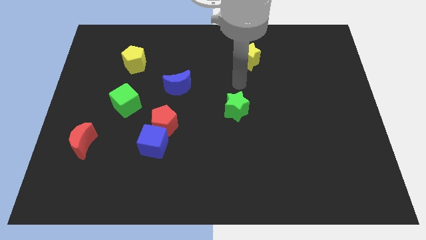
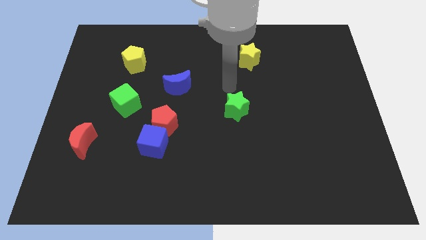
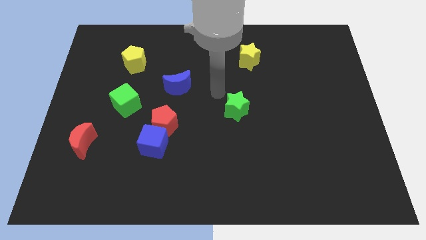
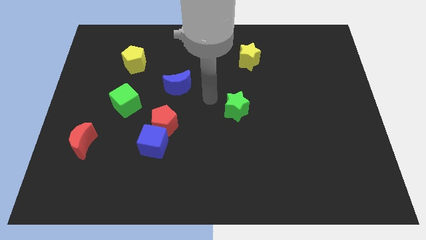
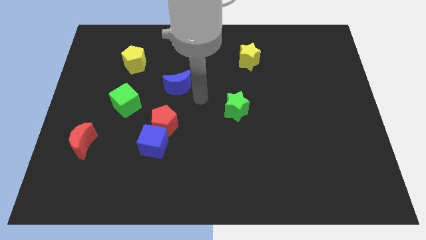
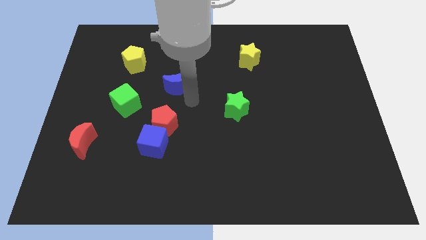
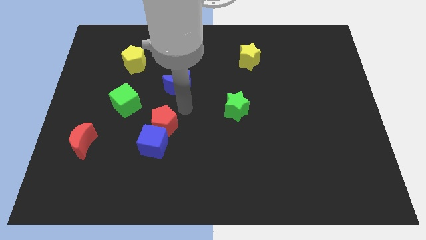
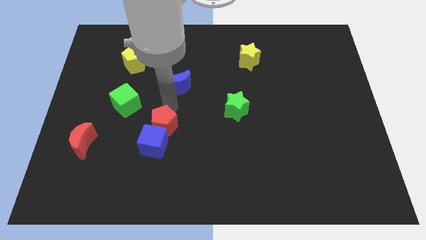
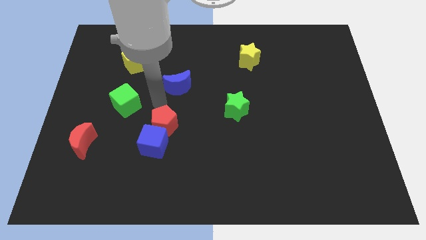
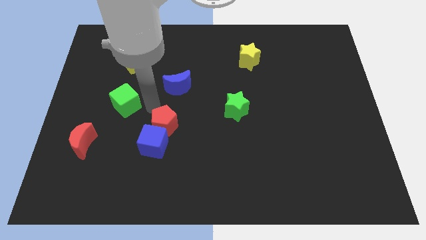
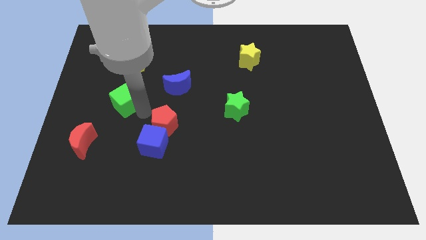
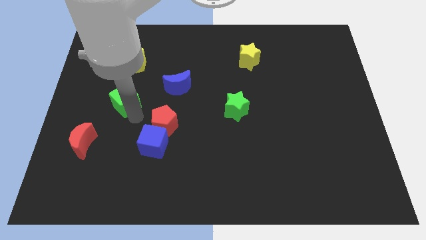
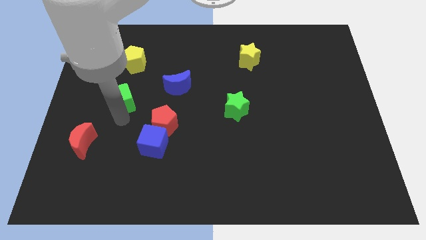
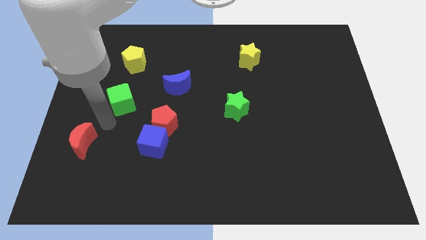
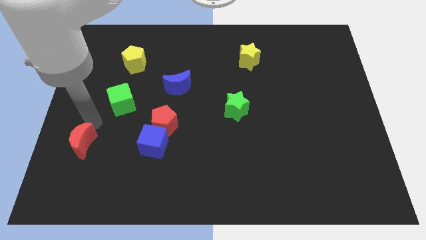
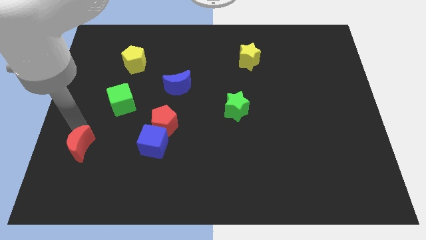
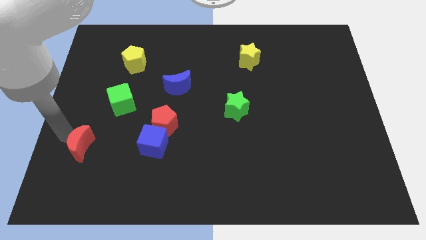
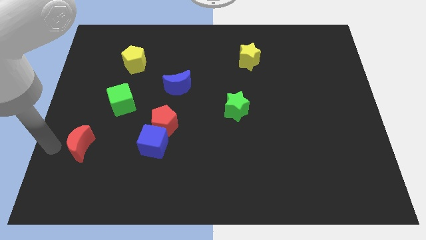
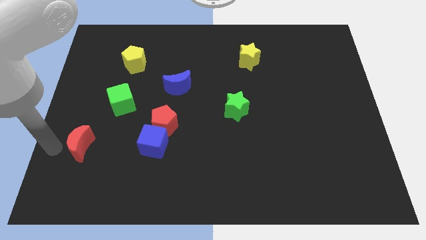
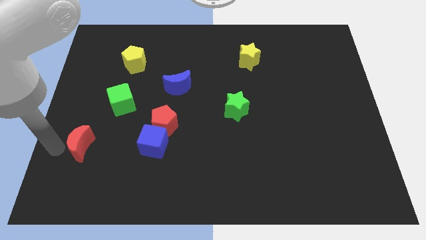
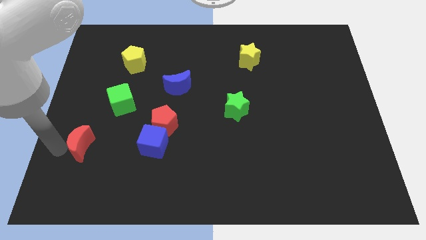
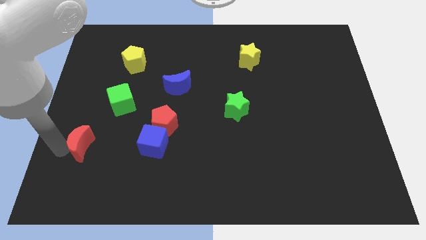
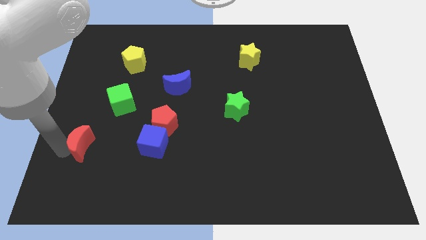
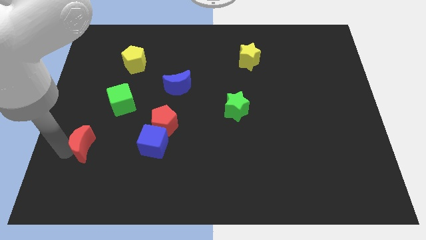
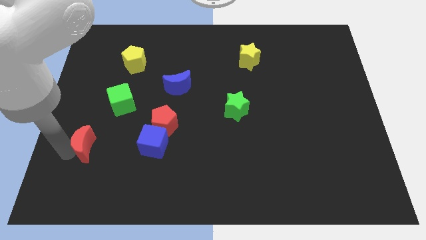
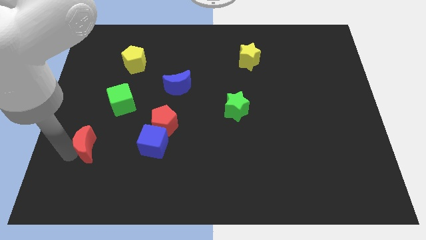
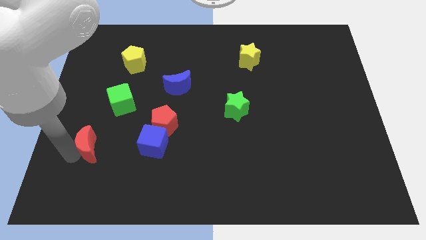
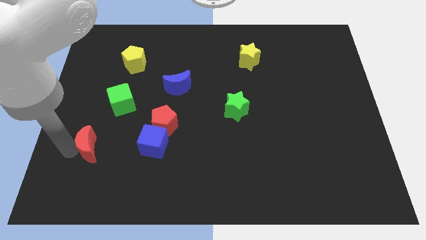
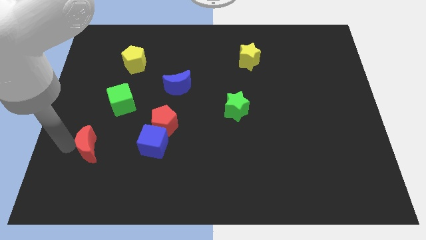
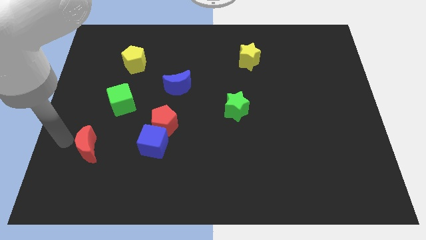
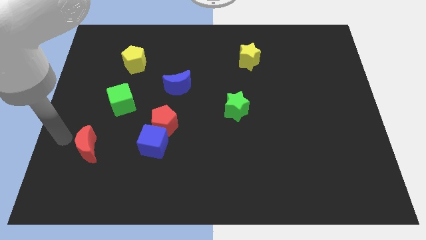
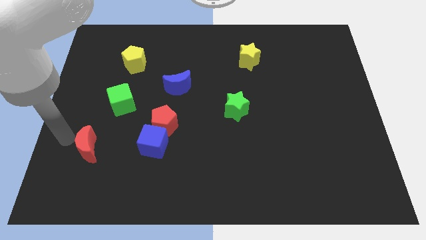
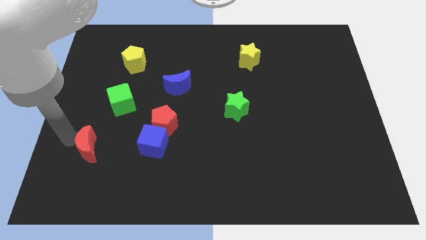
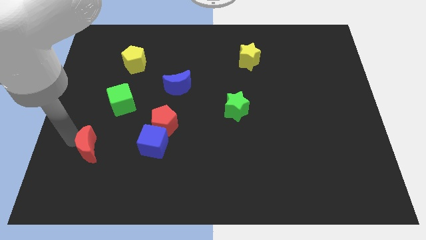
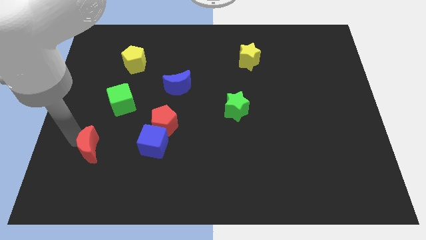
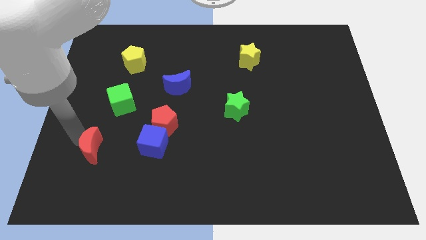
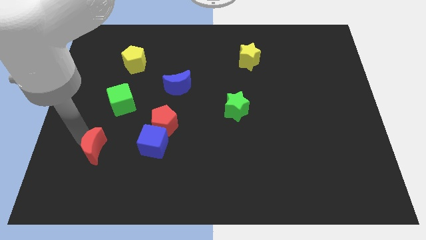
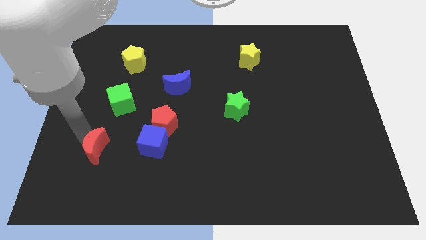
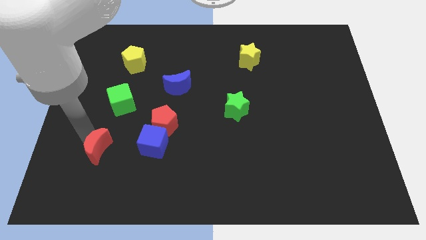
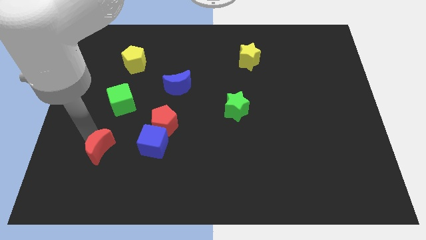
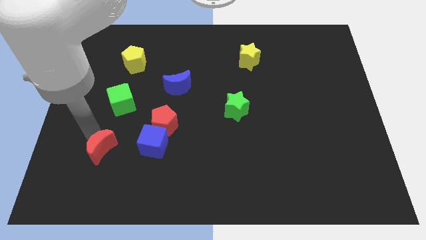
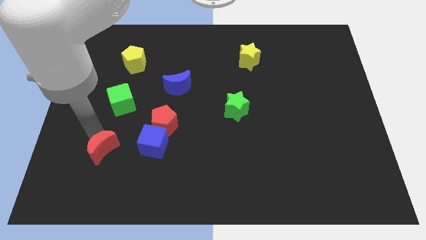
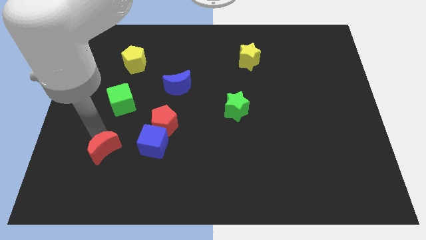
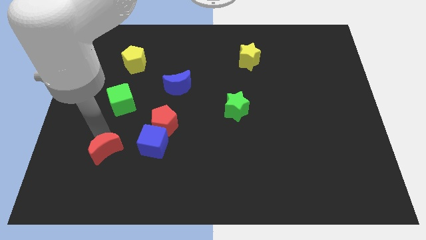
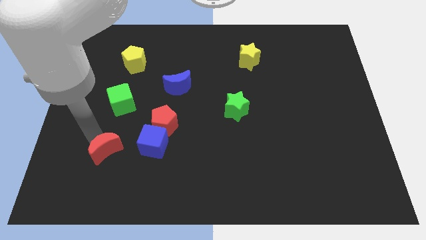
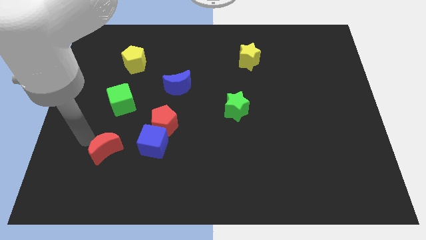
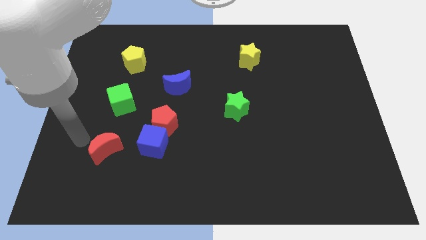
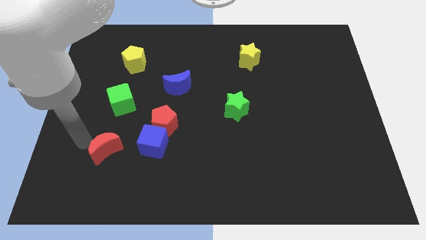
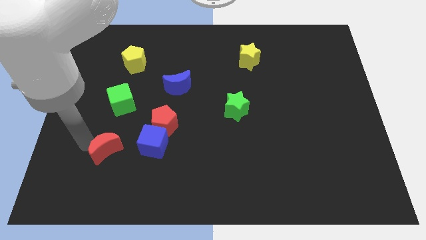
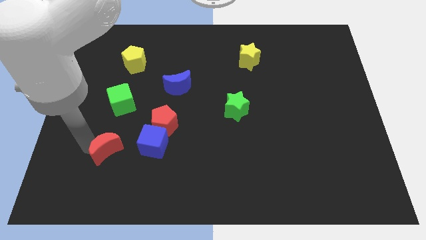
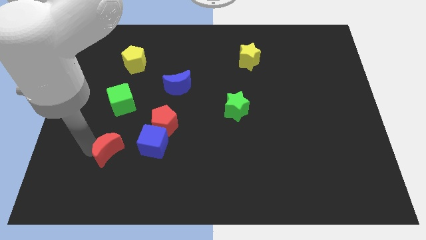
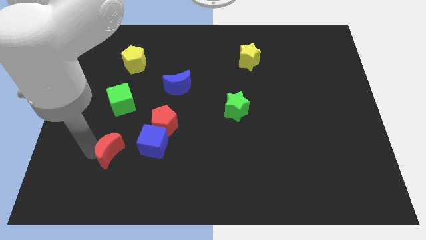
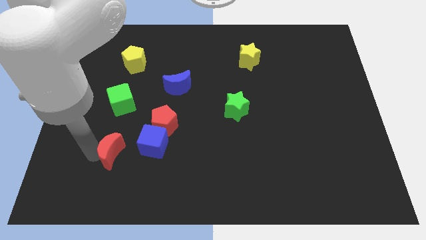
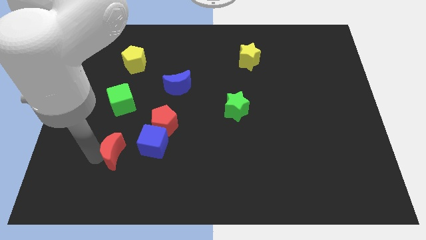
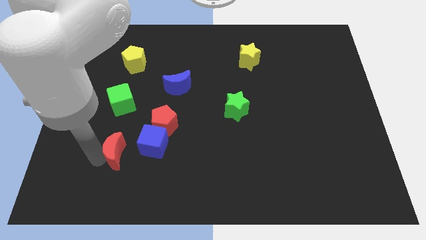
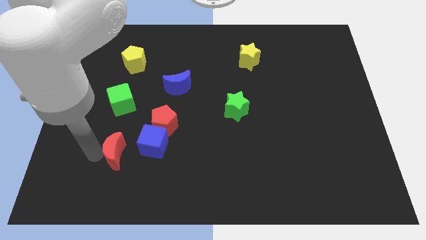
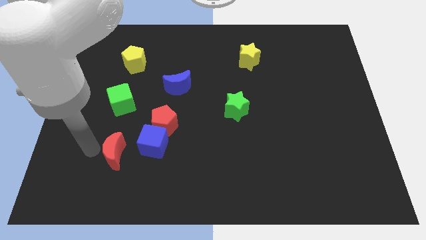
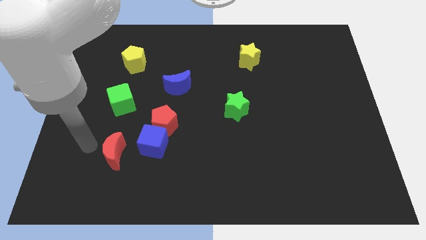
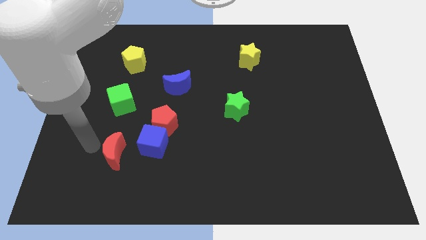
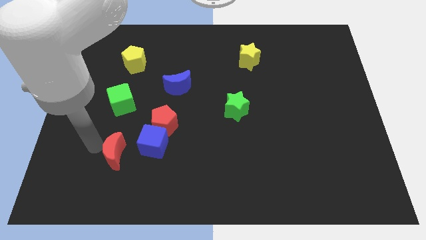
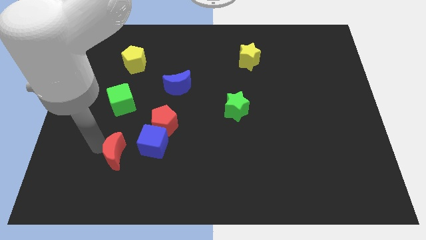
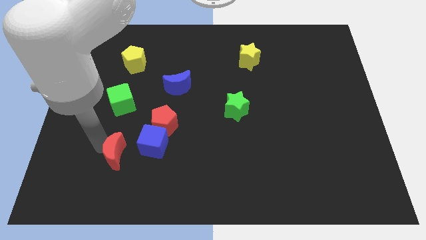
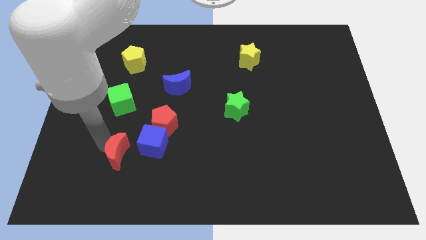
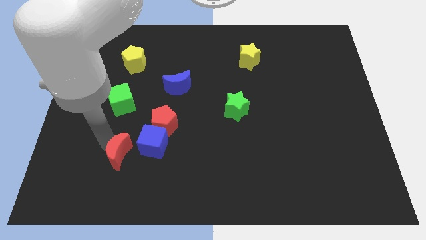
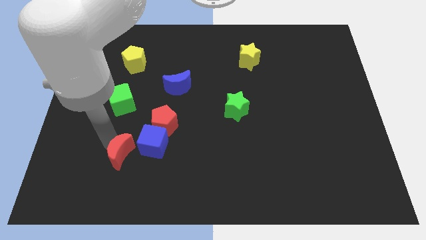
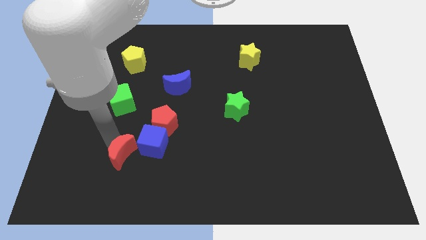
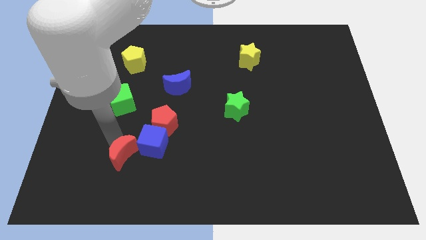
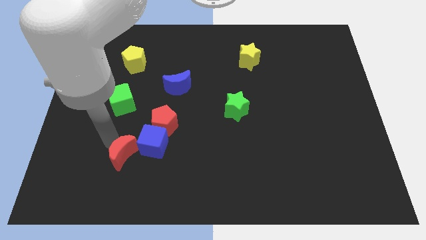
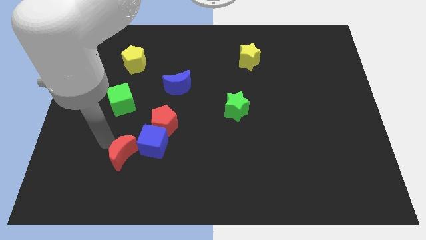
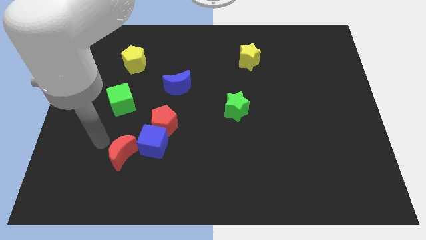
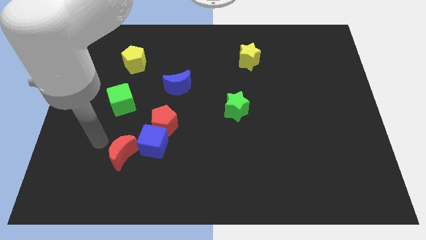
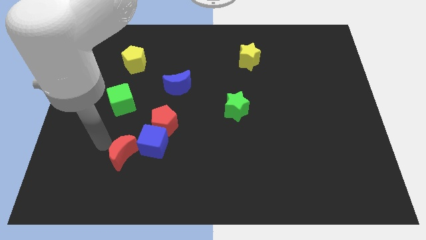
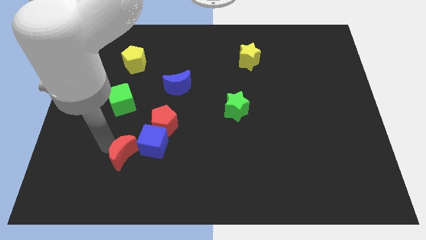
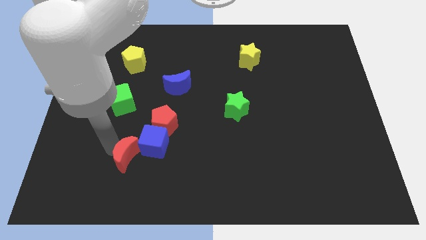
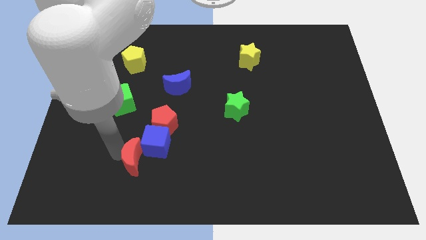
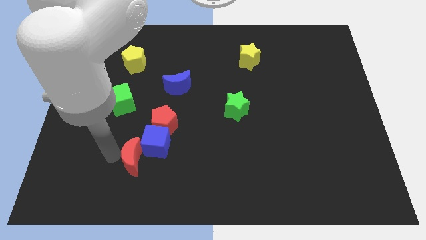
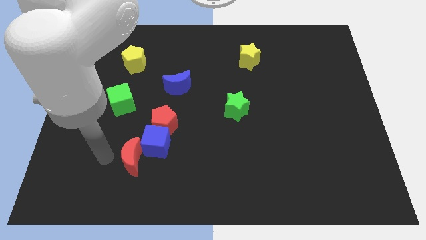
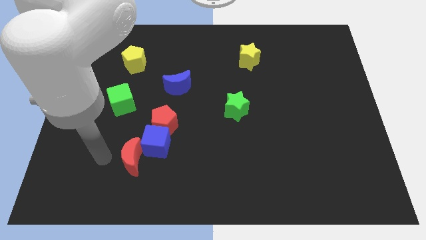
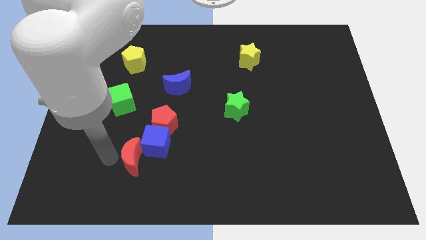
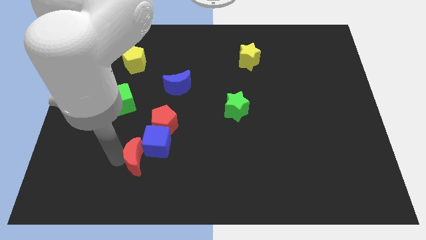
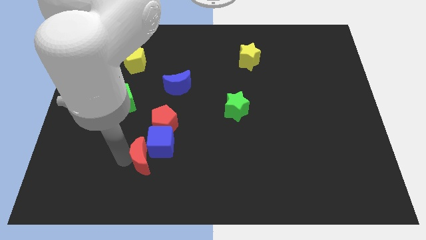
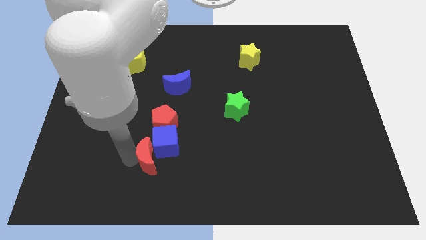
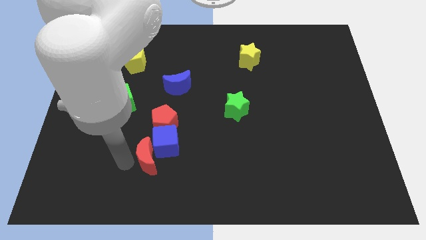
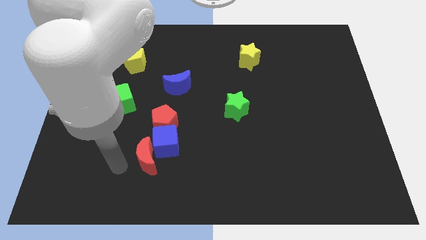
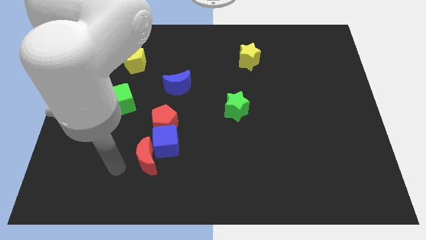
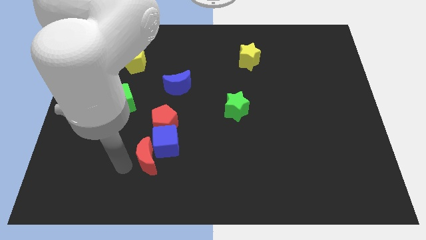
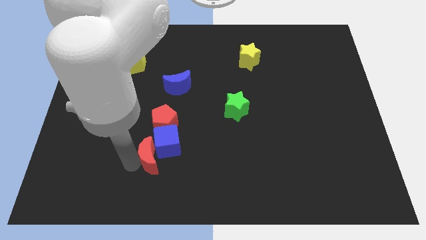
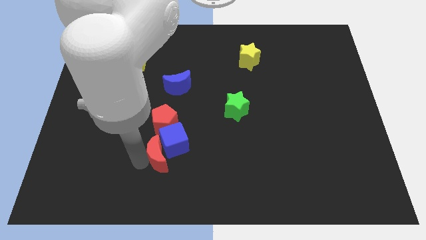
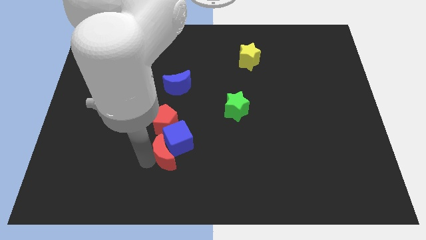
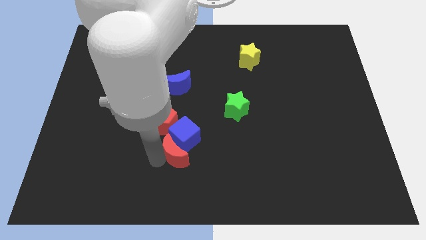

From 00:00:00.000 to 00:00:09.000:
push the red moon to the right
